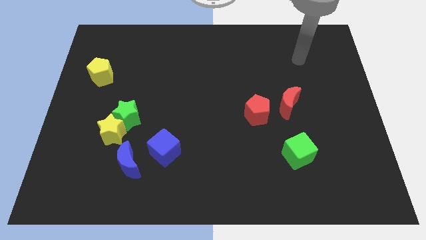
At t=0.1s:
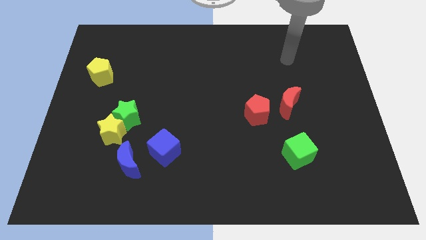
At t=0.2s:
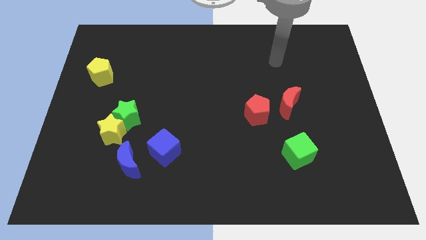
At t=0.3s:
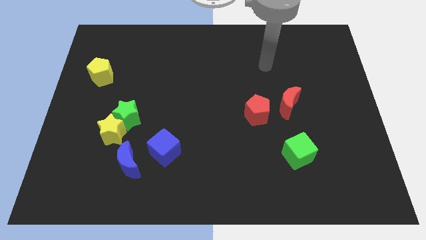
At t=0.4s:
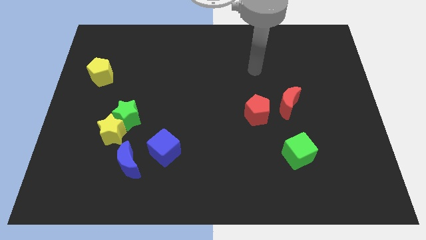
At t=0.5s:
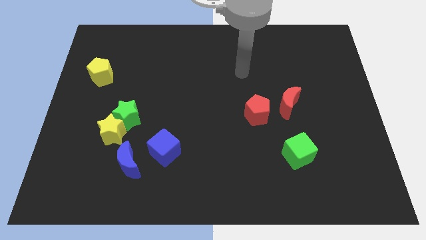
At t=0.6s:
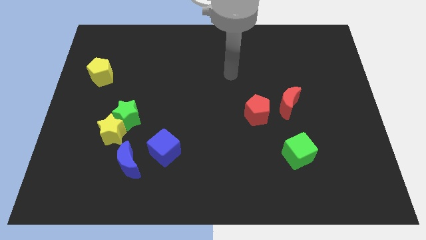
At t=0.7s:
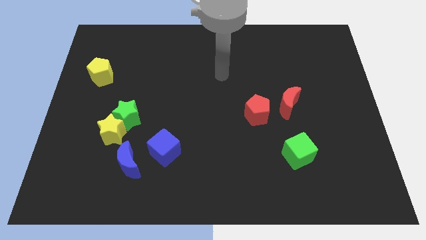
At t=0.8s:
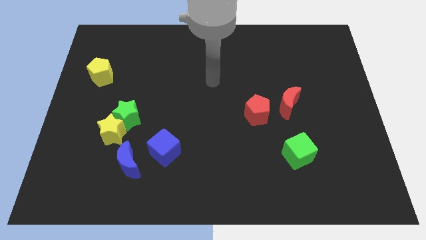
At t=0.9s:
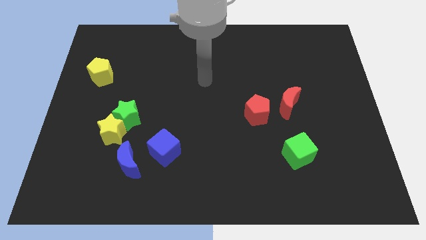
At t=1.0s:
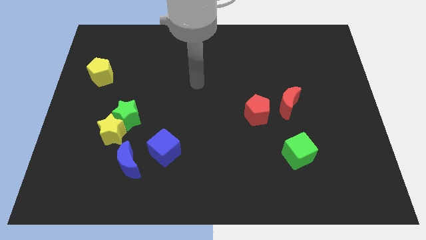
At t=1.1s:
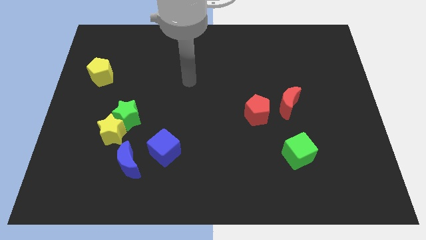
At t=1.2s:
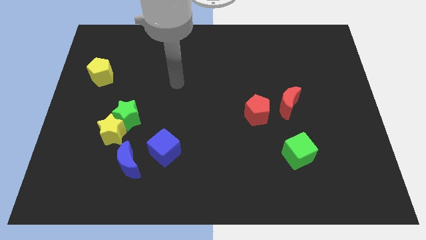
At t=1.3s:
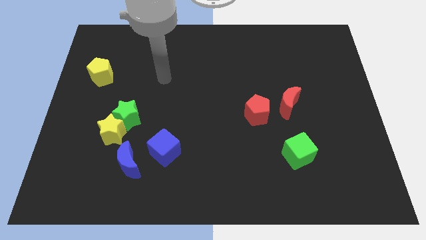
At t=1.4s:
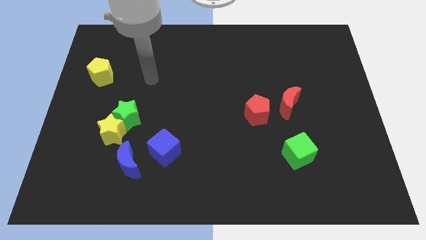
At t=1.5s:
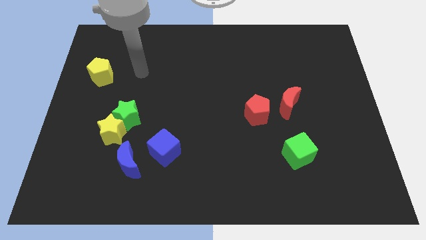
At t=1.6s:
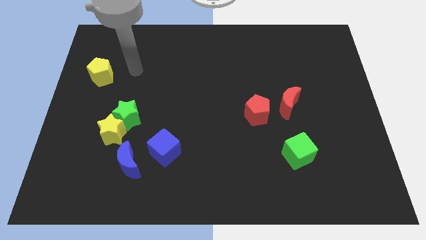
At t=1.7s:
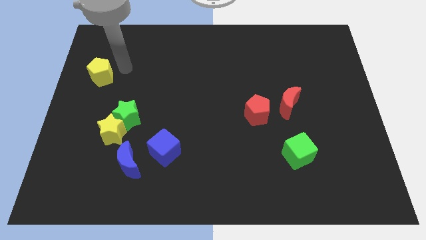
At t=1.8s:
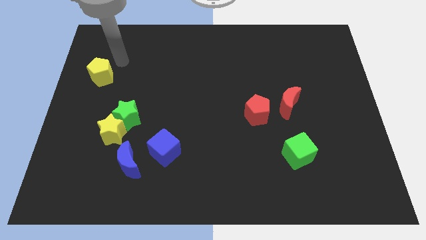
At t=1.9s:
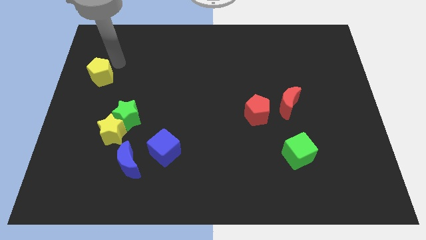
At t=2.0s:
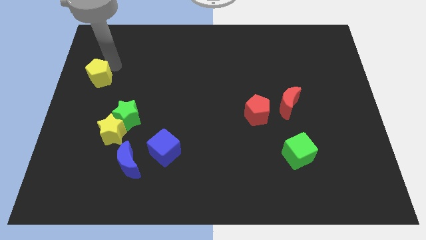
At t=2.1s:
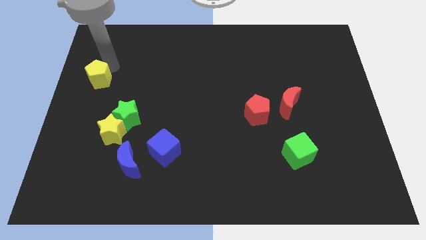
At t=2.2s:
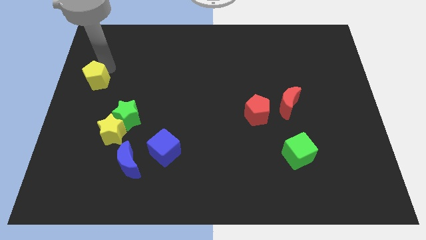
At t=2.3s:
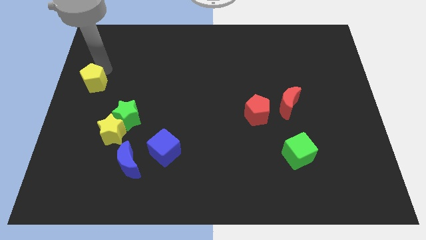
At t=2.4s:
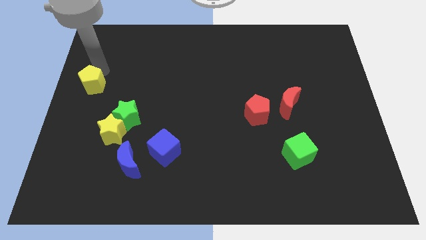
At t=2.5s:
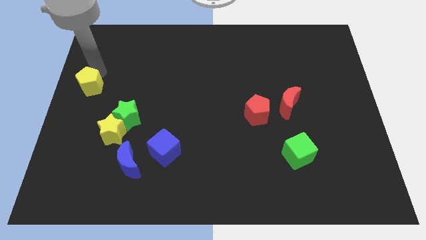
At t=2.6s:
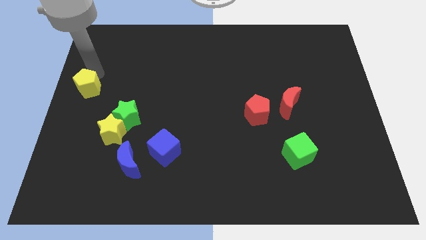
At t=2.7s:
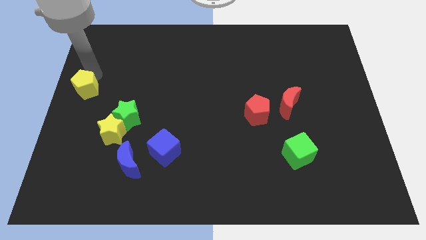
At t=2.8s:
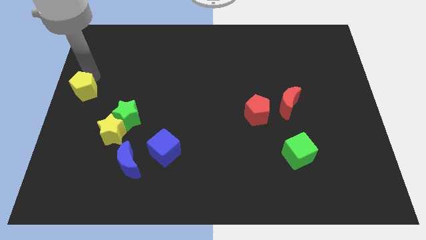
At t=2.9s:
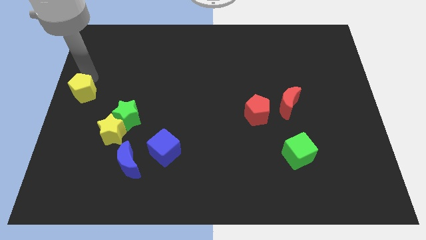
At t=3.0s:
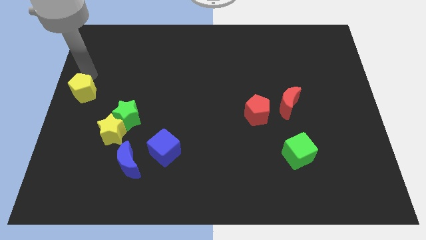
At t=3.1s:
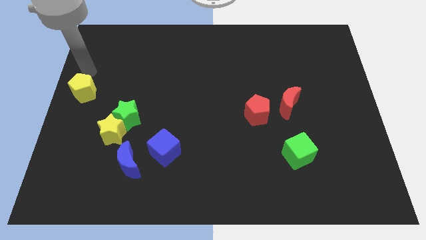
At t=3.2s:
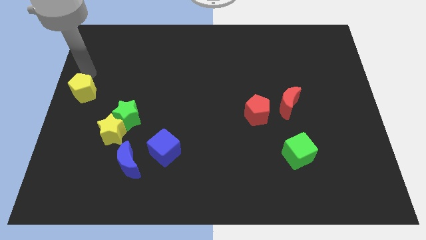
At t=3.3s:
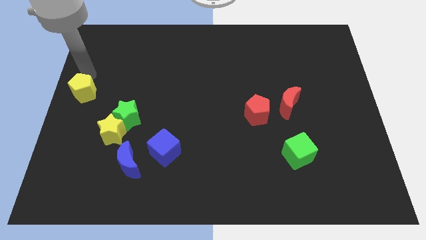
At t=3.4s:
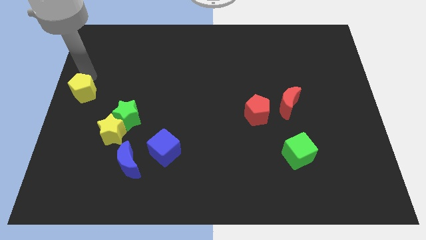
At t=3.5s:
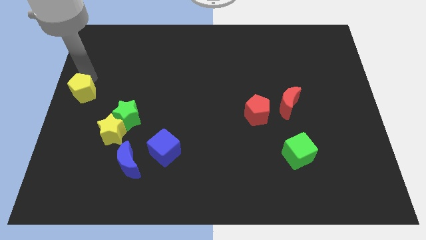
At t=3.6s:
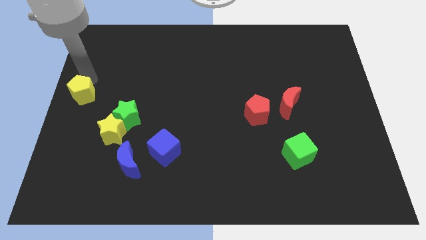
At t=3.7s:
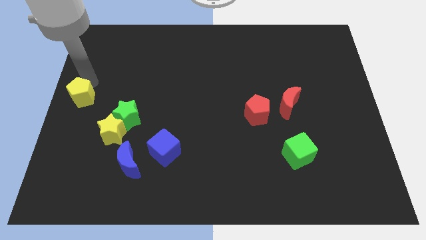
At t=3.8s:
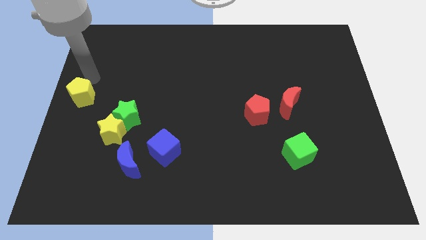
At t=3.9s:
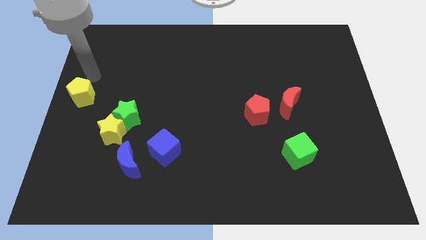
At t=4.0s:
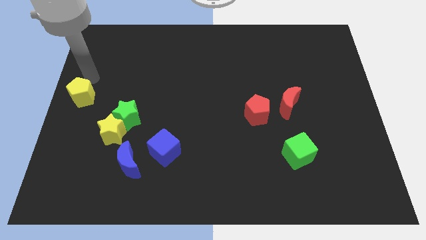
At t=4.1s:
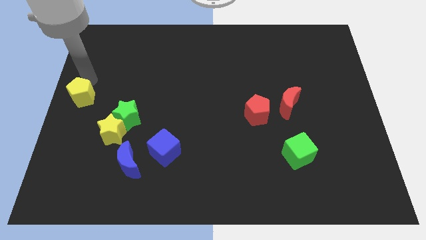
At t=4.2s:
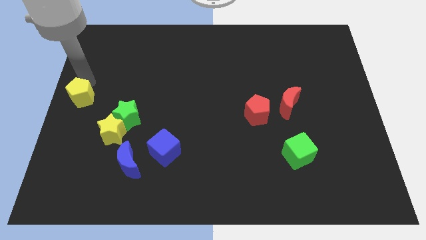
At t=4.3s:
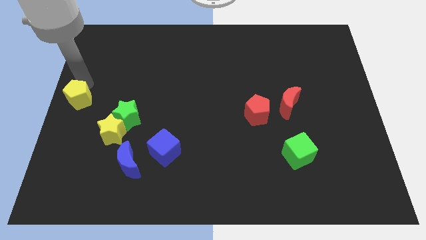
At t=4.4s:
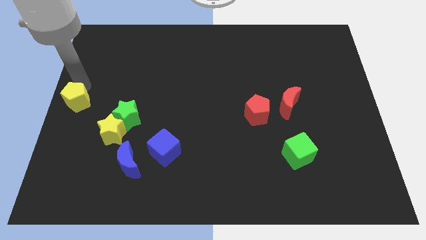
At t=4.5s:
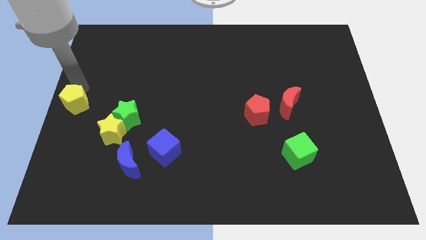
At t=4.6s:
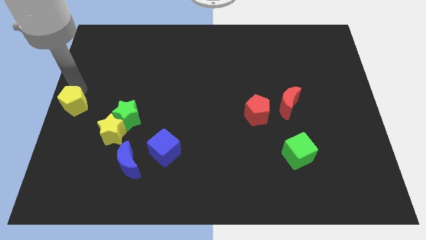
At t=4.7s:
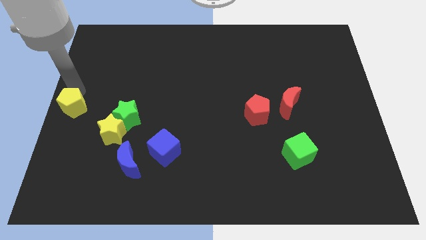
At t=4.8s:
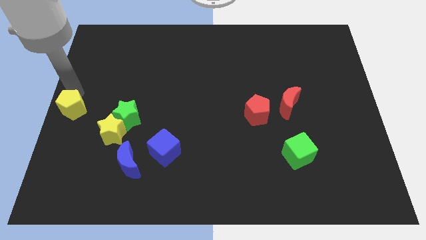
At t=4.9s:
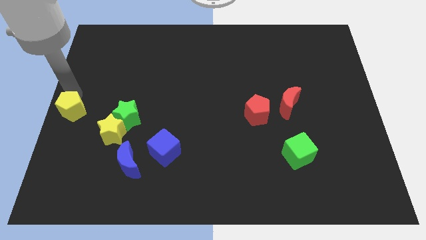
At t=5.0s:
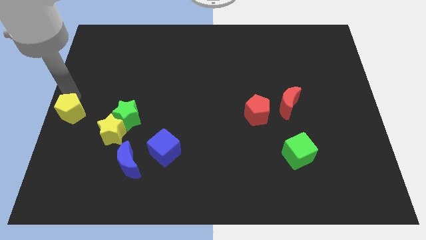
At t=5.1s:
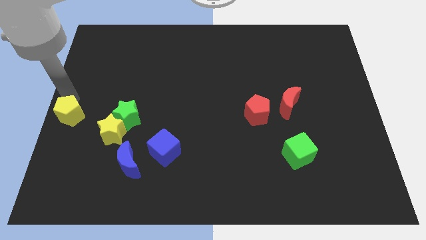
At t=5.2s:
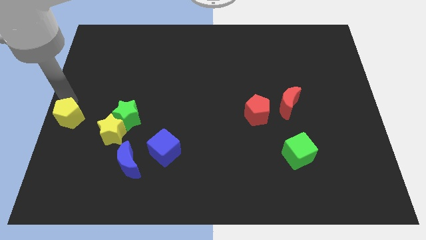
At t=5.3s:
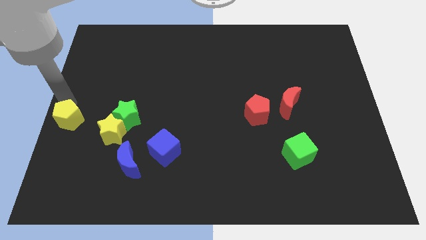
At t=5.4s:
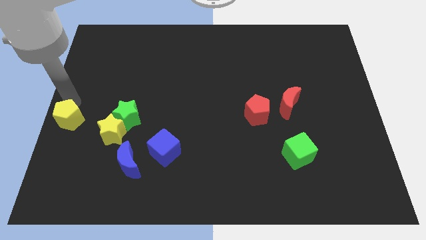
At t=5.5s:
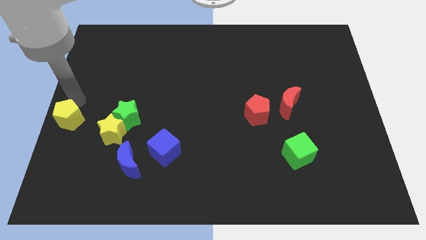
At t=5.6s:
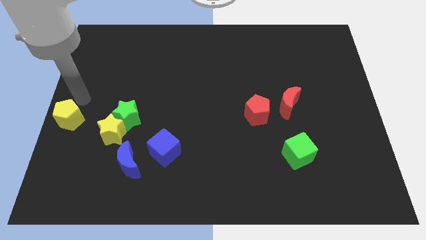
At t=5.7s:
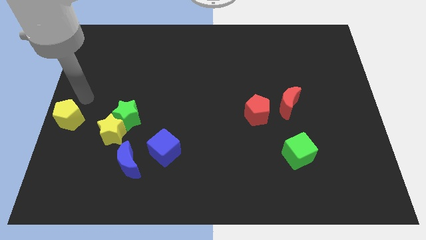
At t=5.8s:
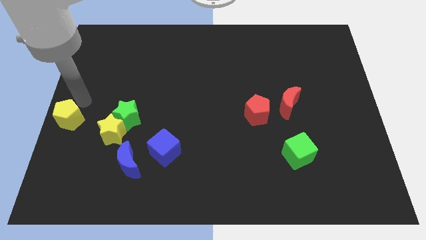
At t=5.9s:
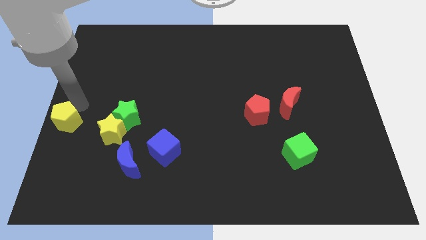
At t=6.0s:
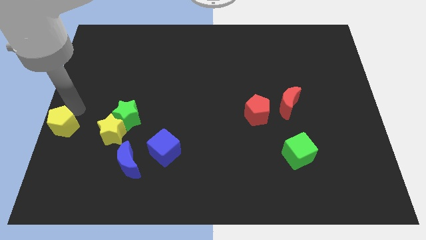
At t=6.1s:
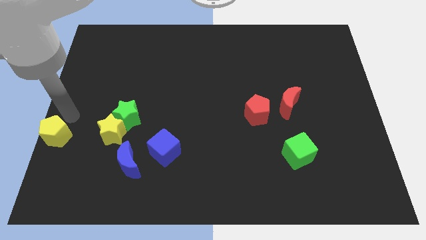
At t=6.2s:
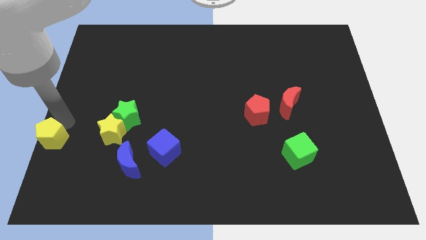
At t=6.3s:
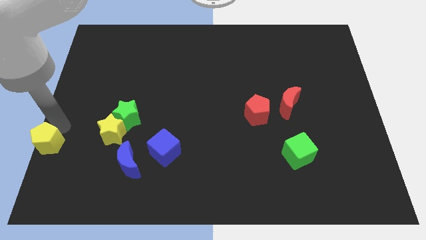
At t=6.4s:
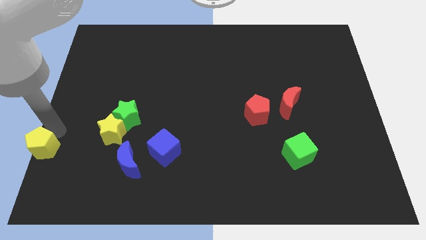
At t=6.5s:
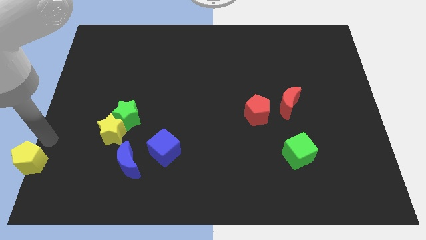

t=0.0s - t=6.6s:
move the yellow pentagon to the bottom left
